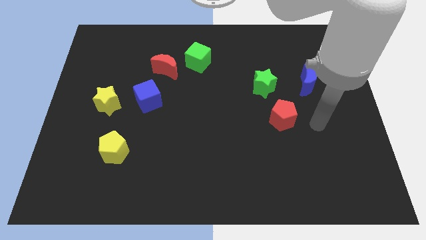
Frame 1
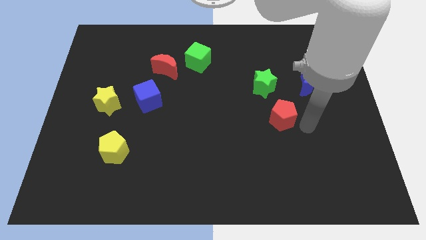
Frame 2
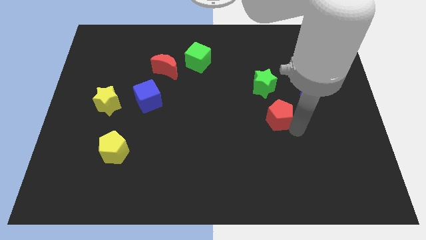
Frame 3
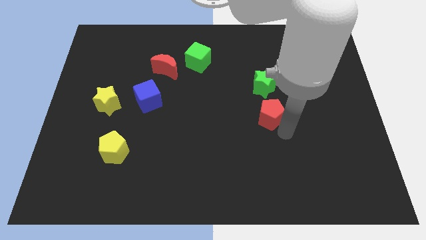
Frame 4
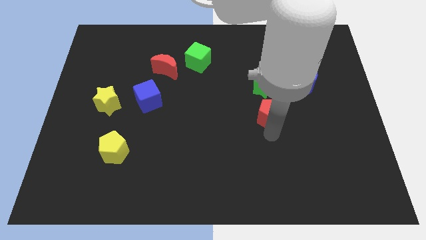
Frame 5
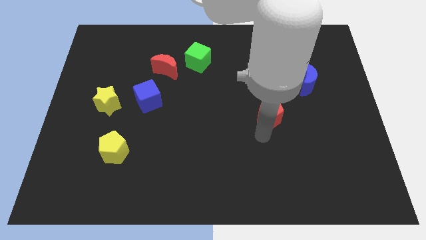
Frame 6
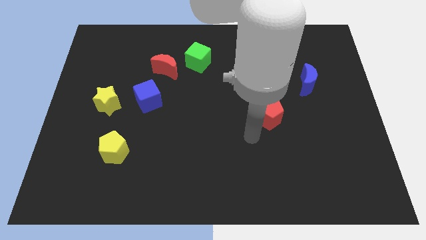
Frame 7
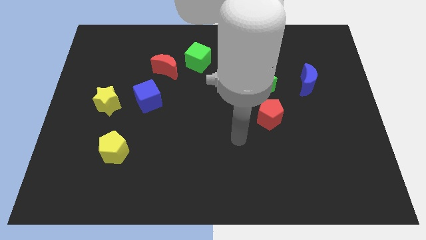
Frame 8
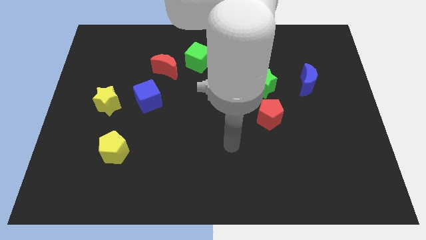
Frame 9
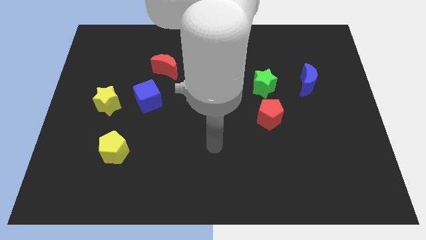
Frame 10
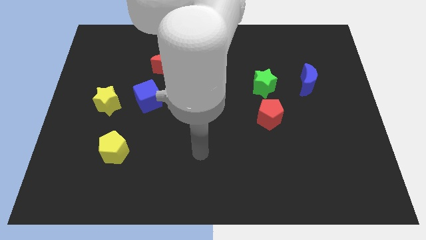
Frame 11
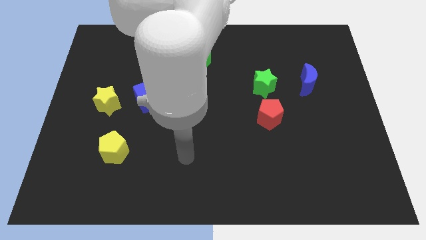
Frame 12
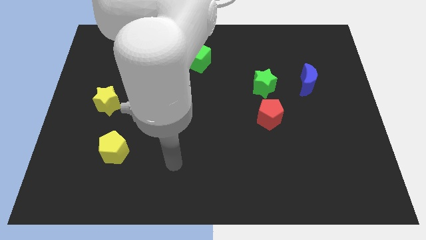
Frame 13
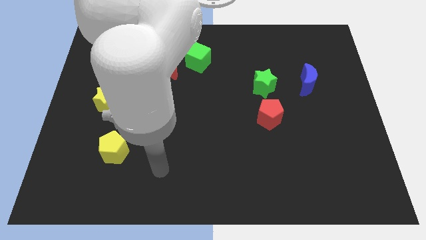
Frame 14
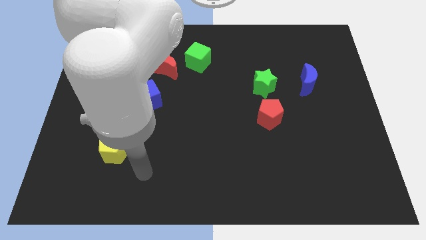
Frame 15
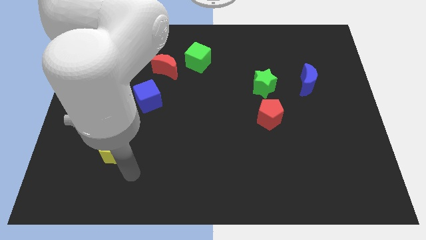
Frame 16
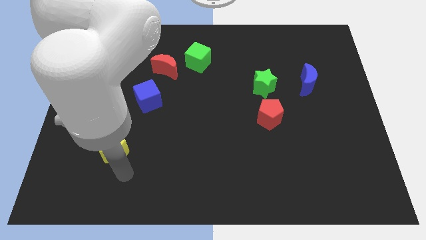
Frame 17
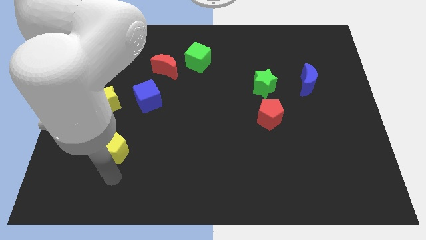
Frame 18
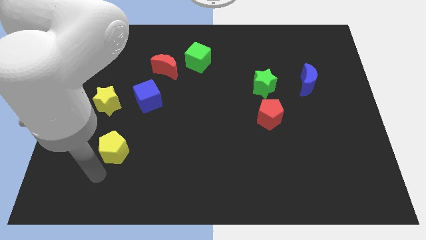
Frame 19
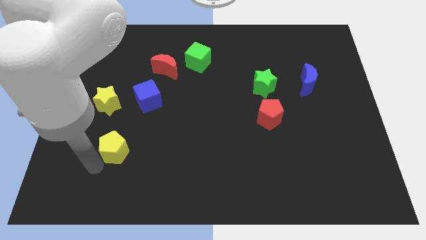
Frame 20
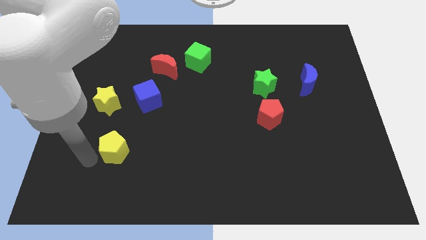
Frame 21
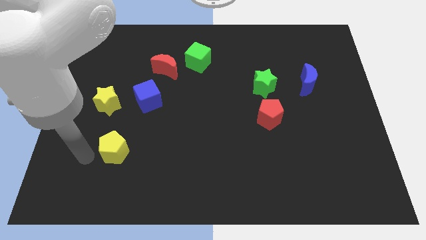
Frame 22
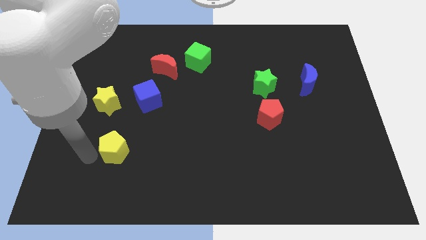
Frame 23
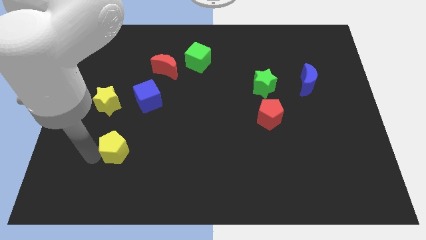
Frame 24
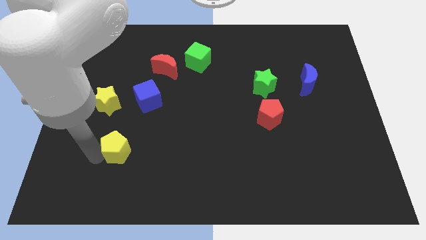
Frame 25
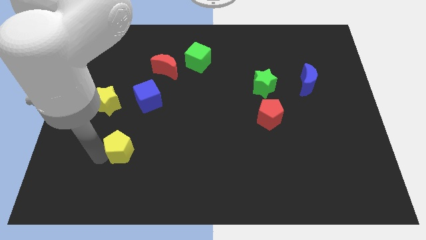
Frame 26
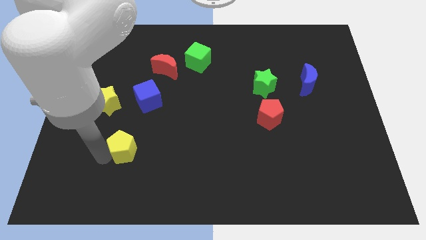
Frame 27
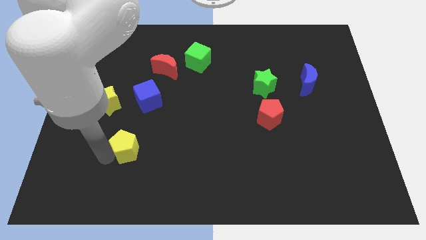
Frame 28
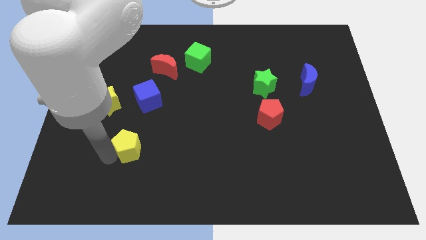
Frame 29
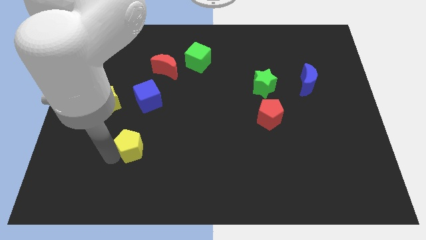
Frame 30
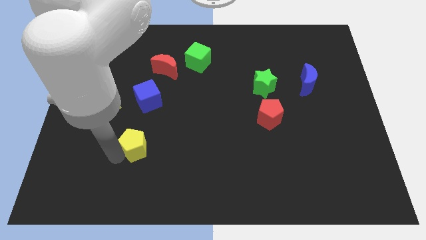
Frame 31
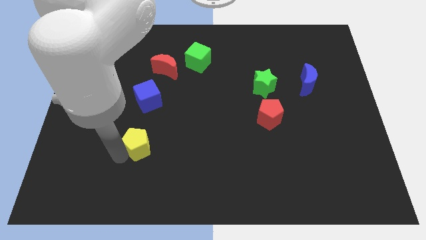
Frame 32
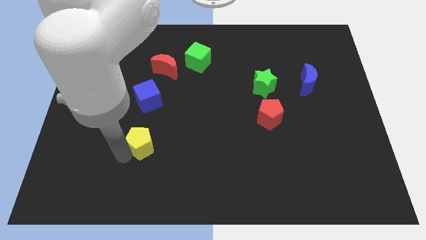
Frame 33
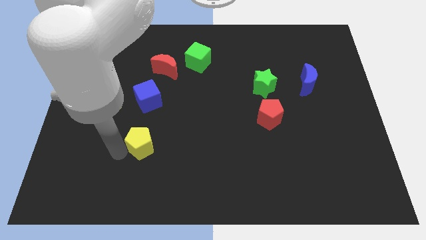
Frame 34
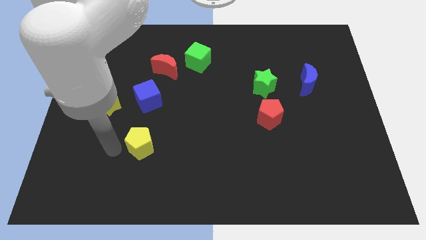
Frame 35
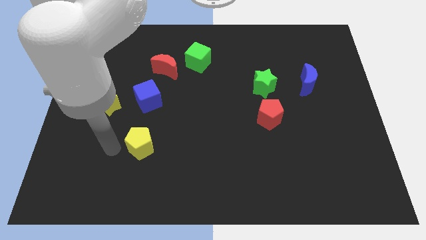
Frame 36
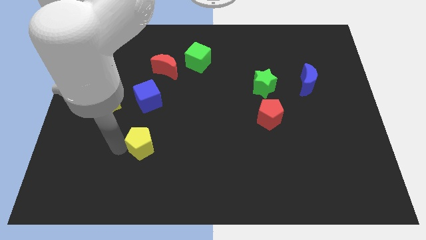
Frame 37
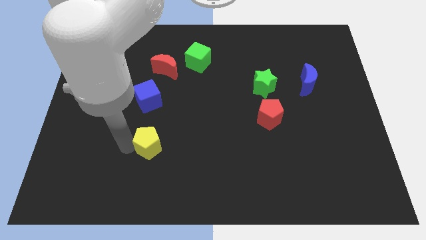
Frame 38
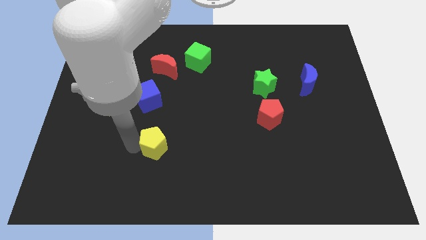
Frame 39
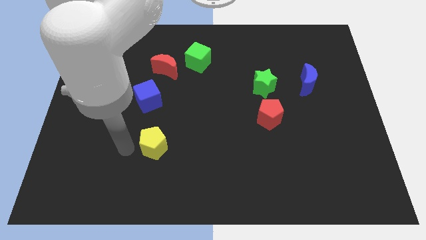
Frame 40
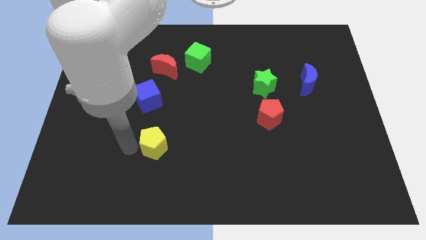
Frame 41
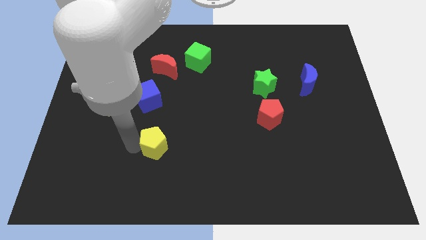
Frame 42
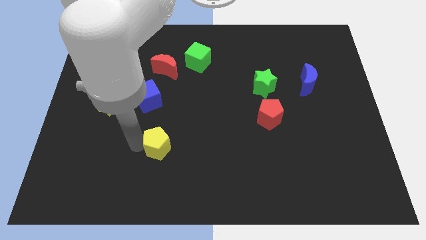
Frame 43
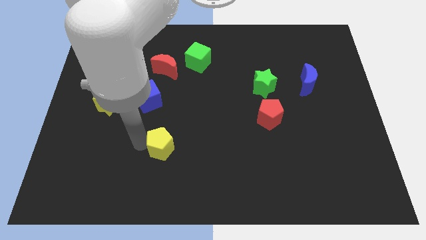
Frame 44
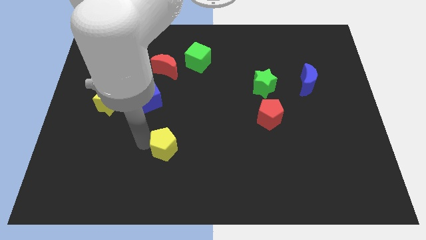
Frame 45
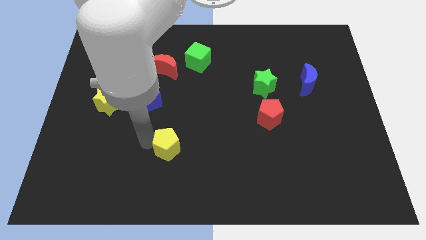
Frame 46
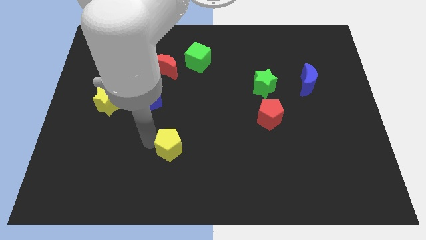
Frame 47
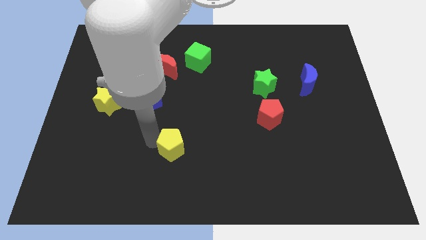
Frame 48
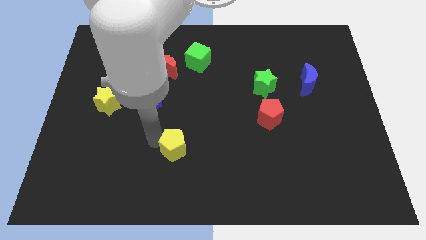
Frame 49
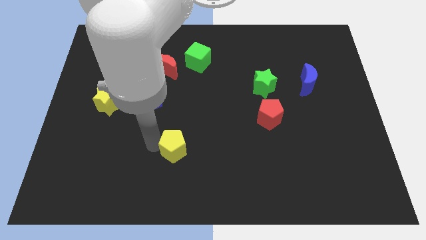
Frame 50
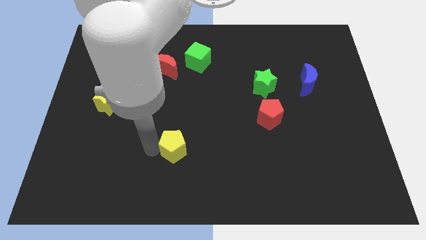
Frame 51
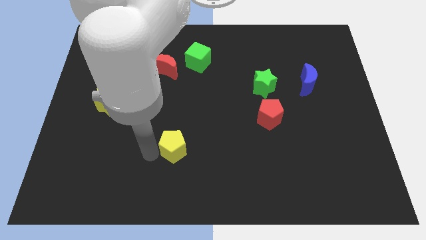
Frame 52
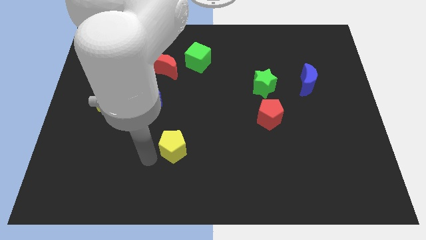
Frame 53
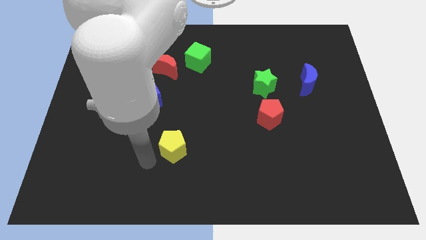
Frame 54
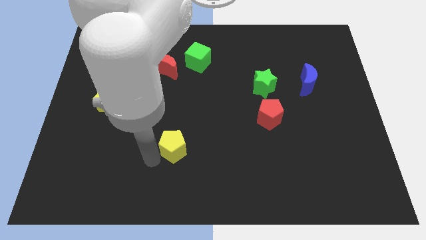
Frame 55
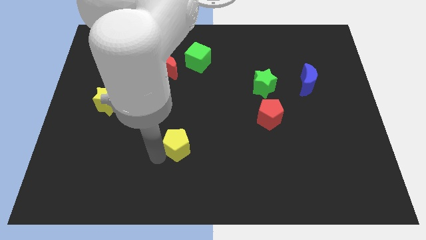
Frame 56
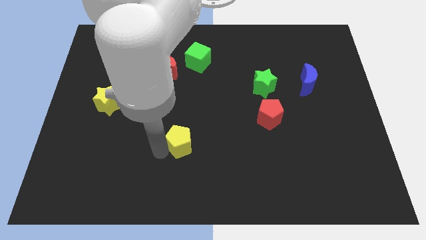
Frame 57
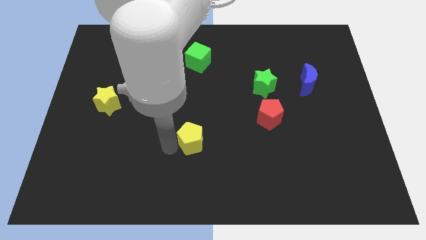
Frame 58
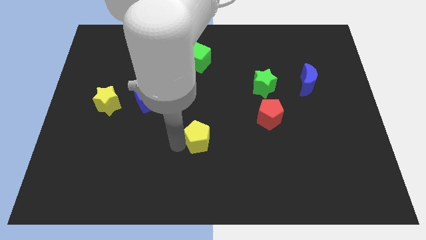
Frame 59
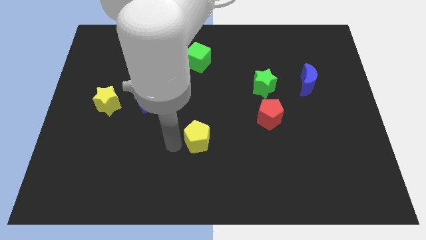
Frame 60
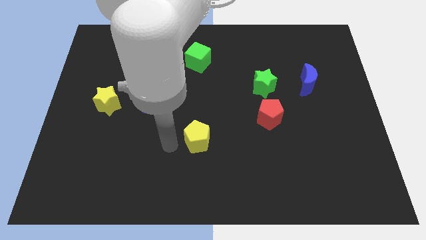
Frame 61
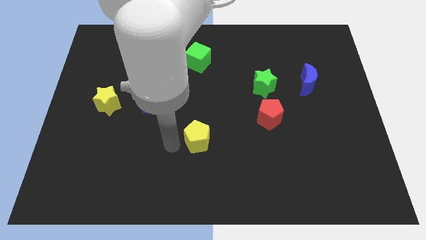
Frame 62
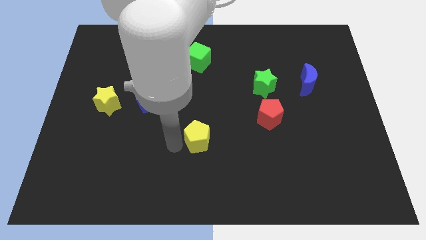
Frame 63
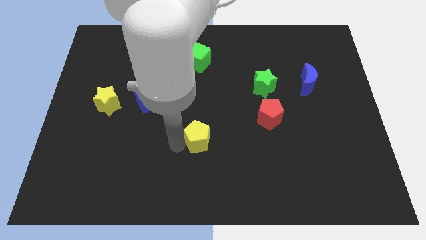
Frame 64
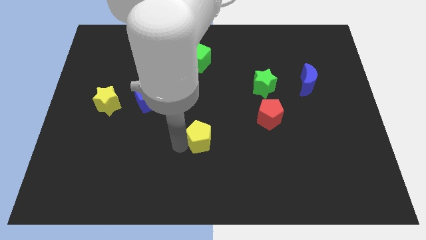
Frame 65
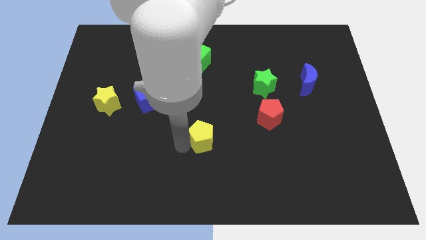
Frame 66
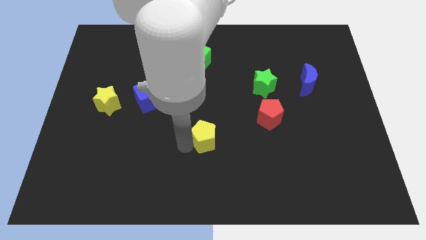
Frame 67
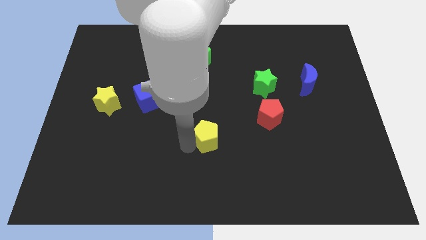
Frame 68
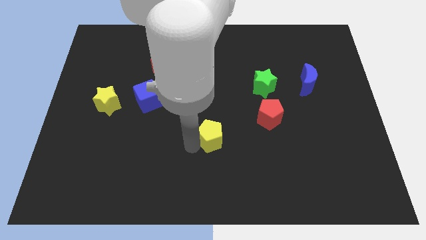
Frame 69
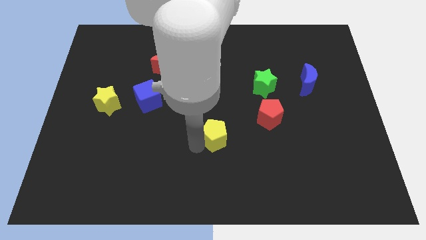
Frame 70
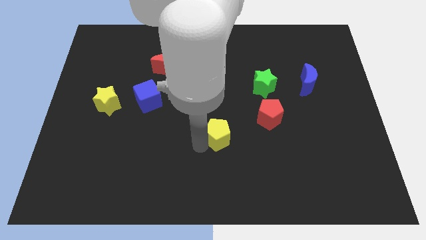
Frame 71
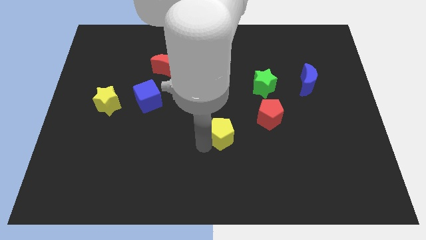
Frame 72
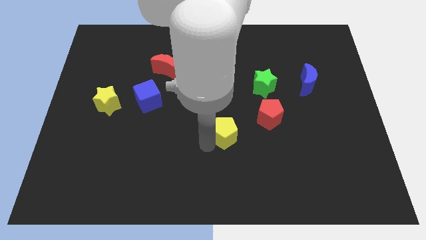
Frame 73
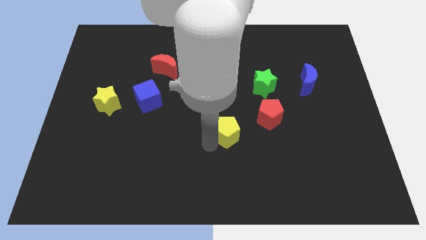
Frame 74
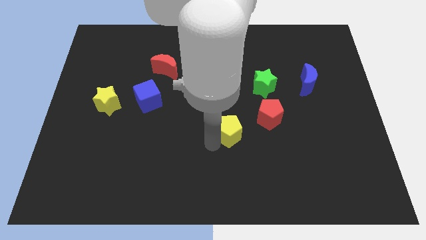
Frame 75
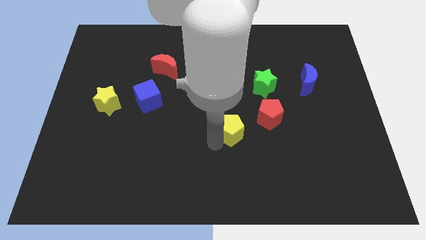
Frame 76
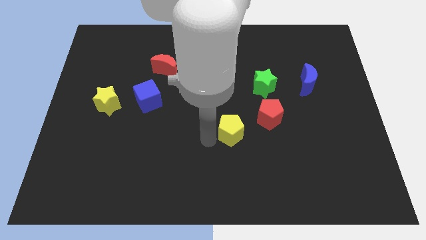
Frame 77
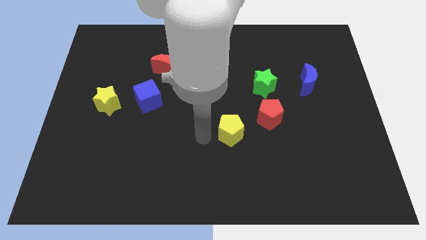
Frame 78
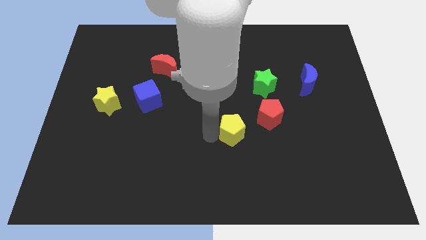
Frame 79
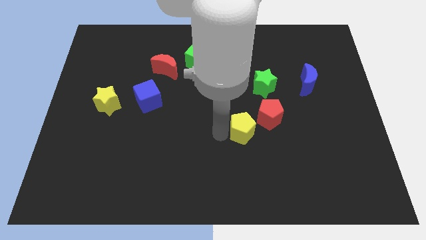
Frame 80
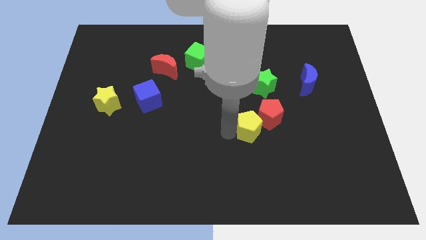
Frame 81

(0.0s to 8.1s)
slide the yellow pentagon towards the red pentagon
